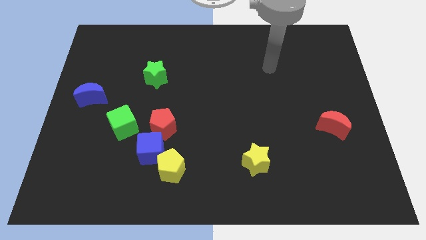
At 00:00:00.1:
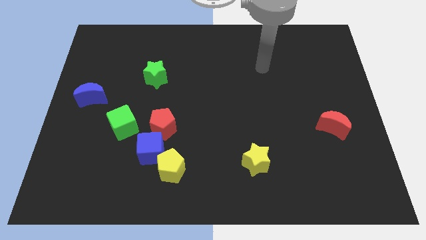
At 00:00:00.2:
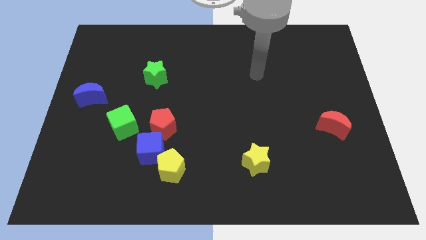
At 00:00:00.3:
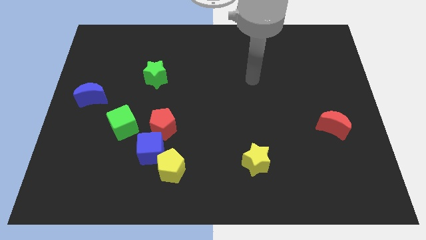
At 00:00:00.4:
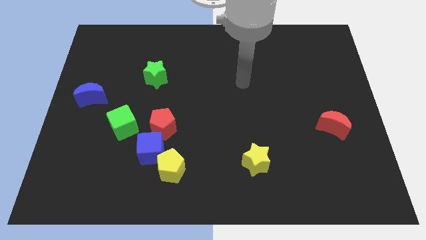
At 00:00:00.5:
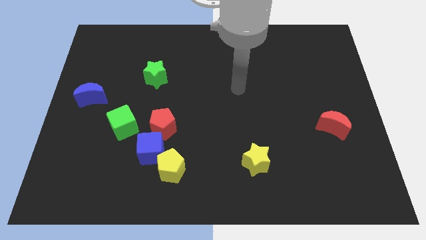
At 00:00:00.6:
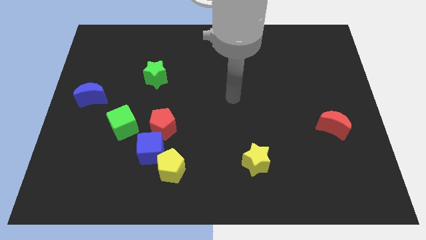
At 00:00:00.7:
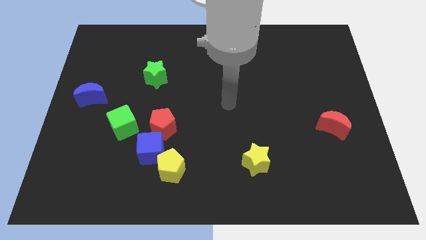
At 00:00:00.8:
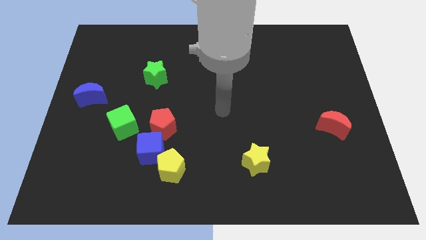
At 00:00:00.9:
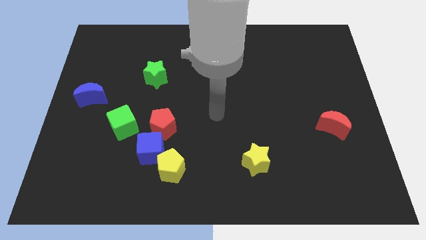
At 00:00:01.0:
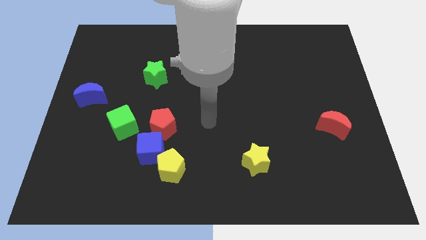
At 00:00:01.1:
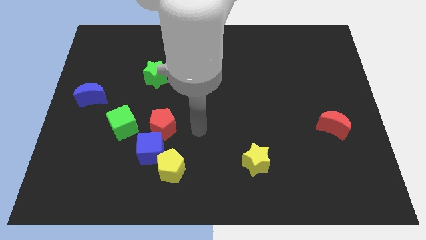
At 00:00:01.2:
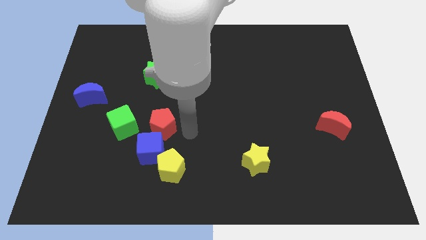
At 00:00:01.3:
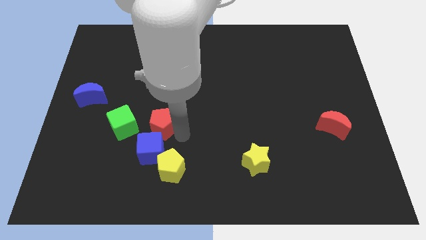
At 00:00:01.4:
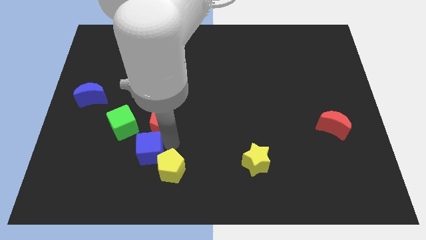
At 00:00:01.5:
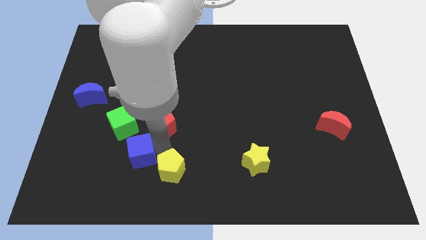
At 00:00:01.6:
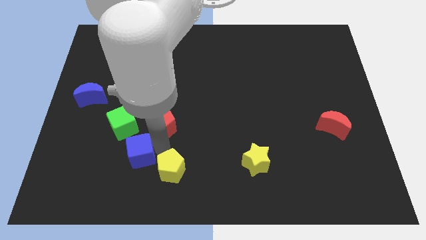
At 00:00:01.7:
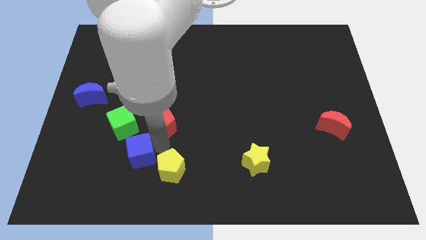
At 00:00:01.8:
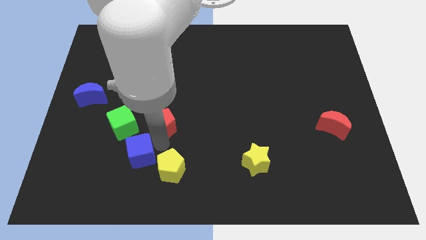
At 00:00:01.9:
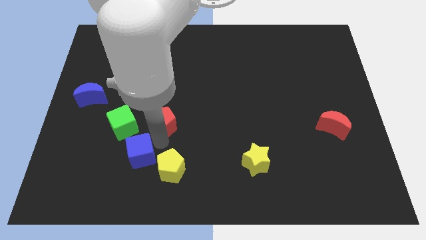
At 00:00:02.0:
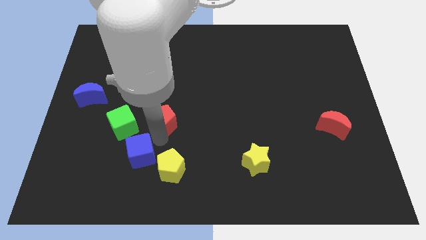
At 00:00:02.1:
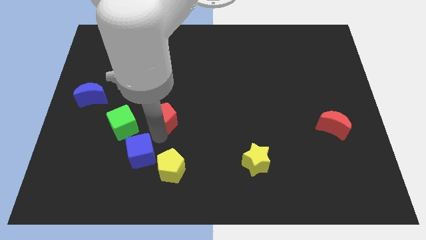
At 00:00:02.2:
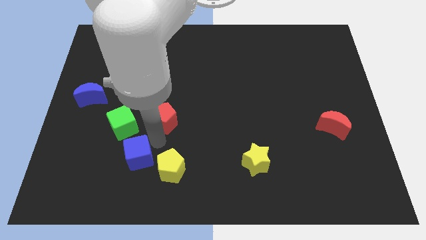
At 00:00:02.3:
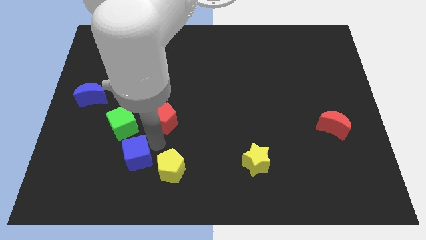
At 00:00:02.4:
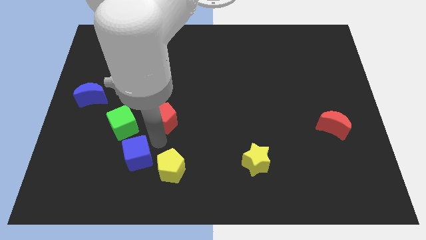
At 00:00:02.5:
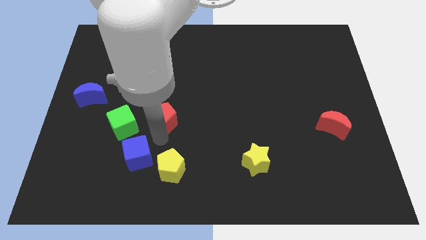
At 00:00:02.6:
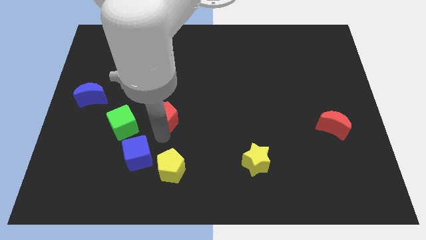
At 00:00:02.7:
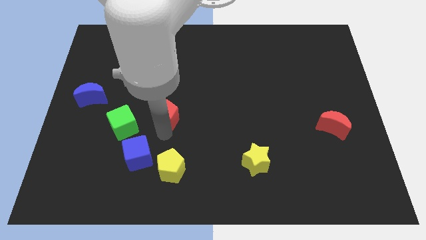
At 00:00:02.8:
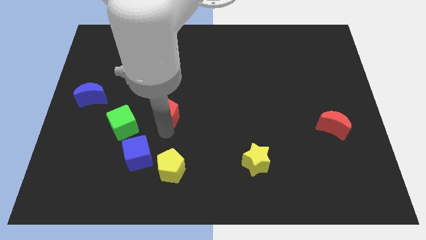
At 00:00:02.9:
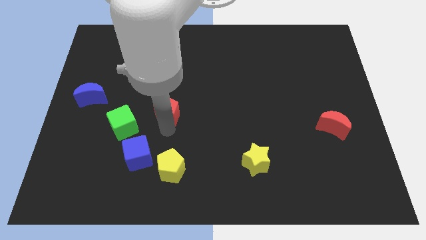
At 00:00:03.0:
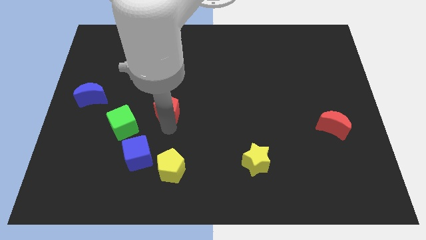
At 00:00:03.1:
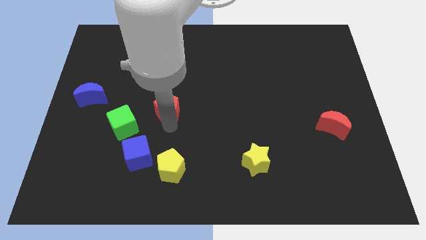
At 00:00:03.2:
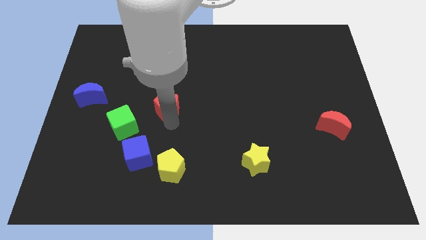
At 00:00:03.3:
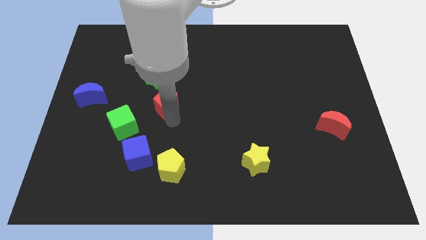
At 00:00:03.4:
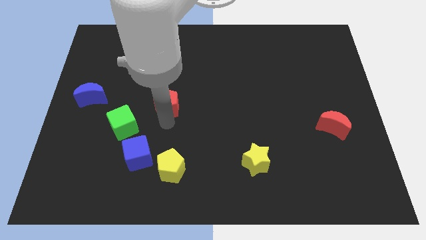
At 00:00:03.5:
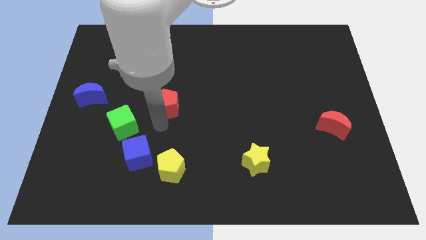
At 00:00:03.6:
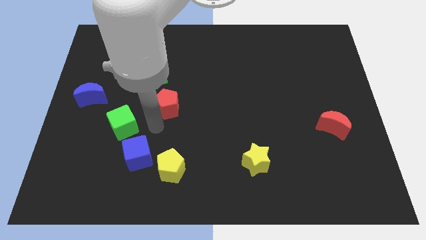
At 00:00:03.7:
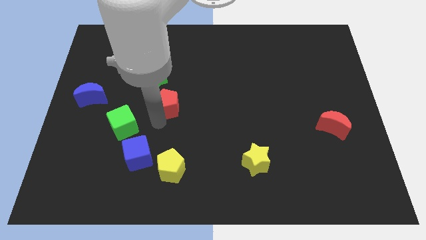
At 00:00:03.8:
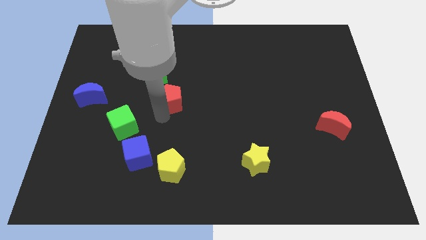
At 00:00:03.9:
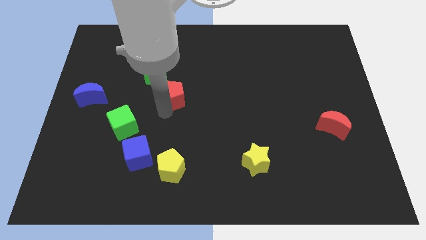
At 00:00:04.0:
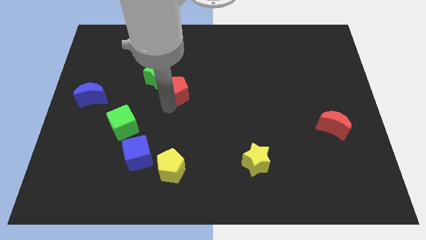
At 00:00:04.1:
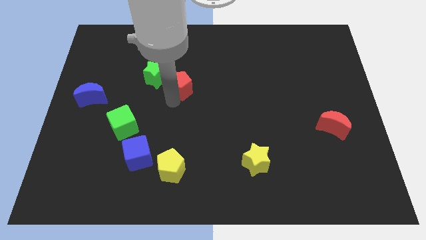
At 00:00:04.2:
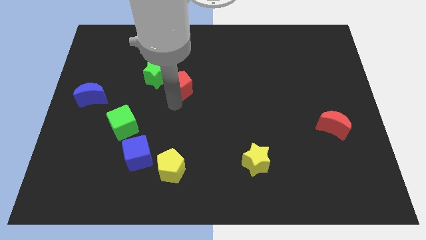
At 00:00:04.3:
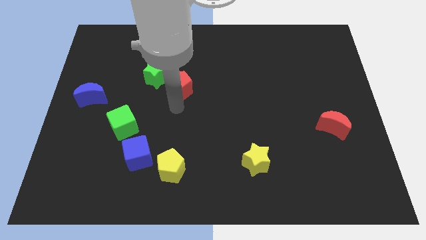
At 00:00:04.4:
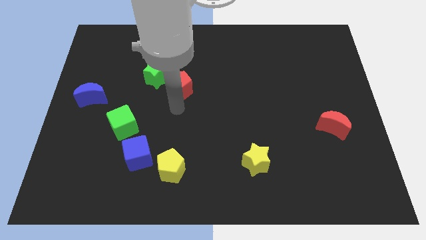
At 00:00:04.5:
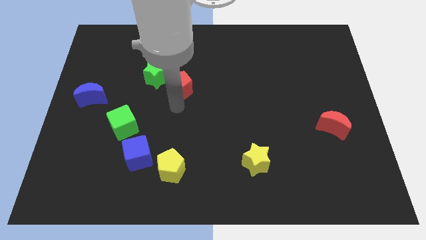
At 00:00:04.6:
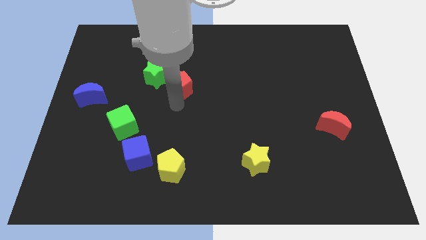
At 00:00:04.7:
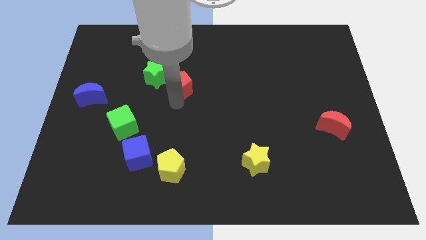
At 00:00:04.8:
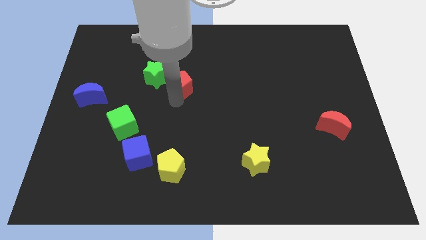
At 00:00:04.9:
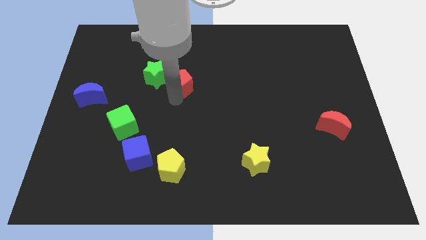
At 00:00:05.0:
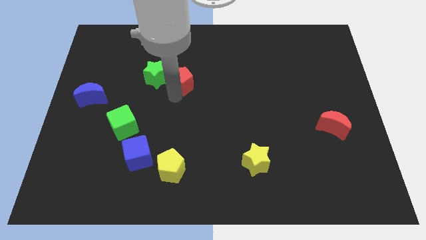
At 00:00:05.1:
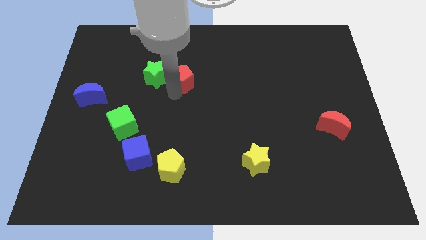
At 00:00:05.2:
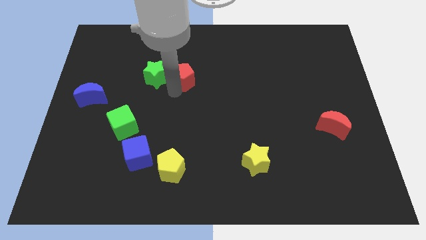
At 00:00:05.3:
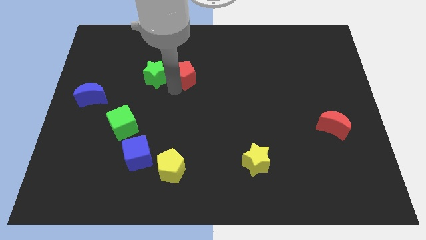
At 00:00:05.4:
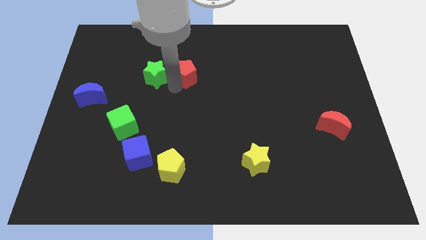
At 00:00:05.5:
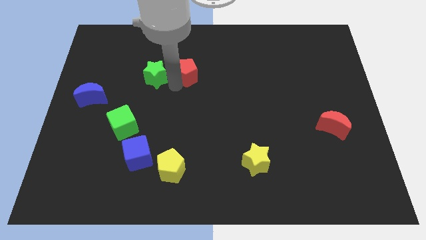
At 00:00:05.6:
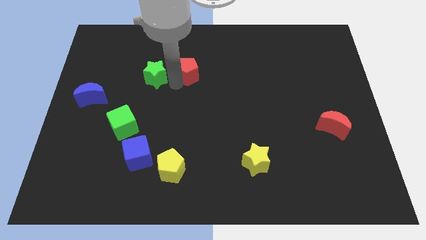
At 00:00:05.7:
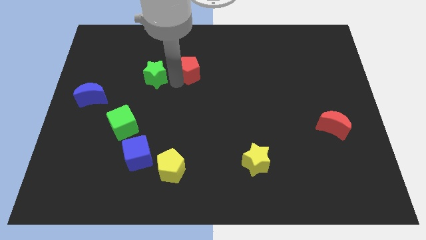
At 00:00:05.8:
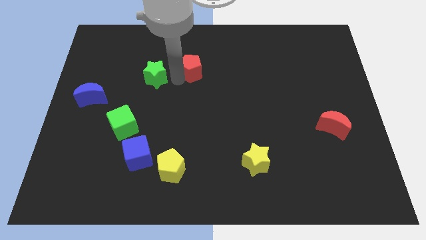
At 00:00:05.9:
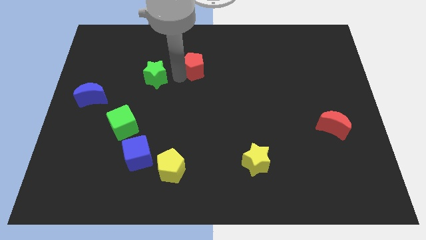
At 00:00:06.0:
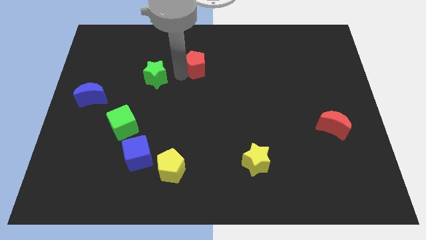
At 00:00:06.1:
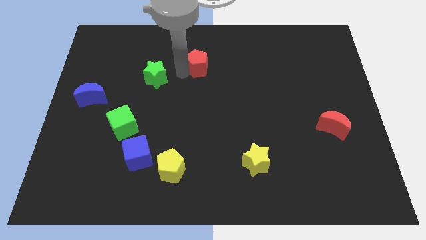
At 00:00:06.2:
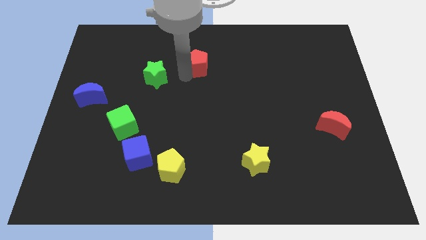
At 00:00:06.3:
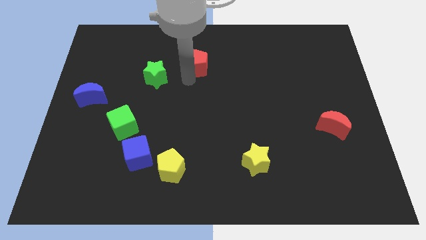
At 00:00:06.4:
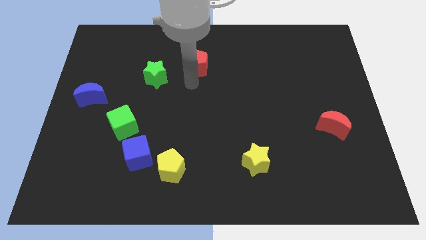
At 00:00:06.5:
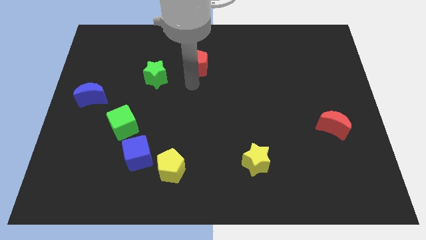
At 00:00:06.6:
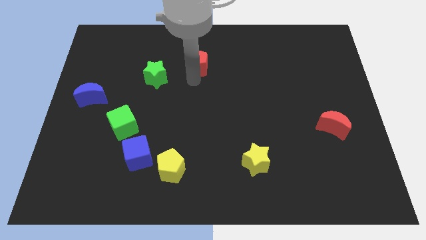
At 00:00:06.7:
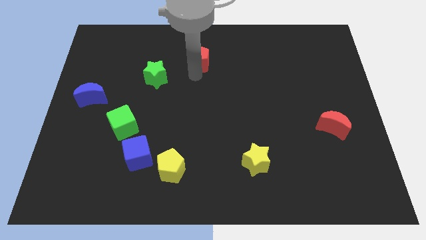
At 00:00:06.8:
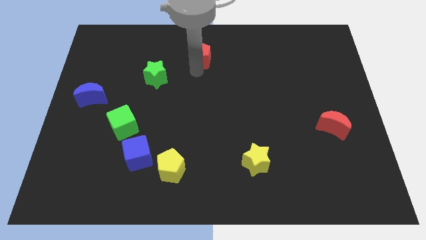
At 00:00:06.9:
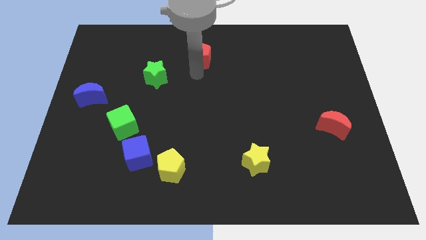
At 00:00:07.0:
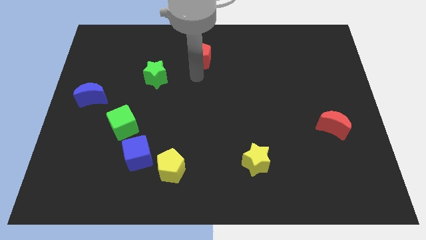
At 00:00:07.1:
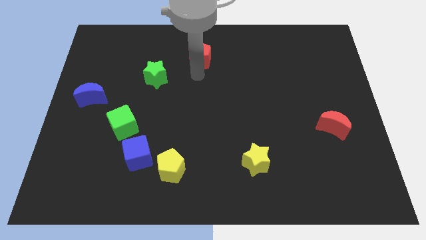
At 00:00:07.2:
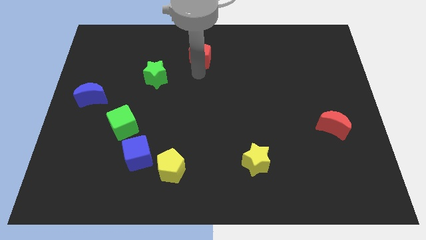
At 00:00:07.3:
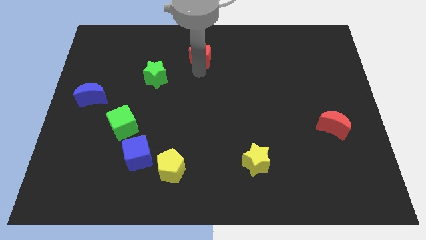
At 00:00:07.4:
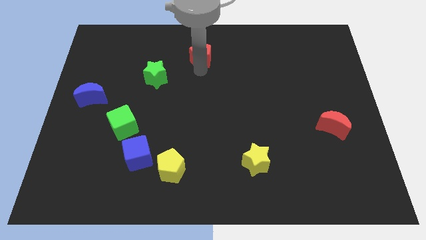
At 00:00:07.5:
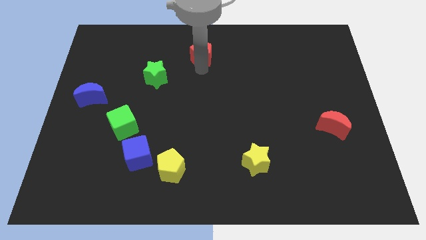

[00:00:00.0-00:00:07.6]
move the red pentagon to the top side
